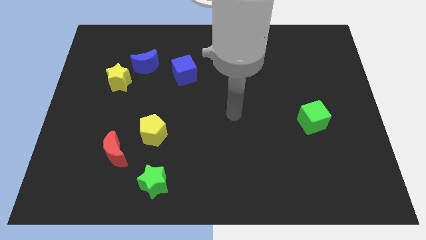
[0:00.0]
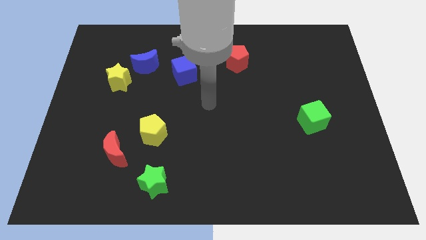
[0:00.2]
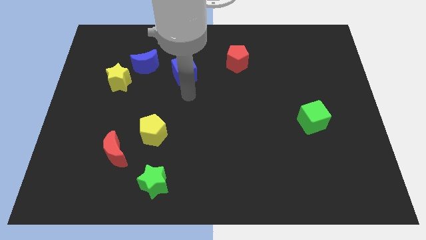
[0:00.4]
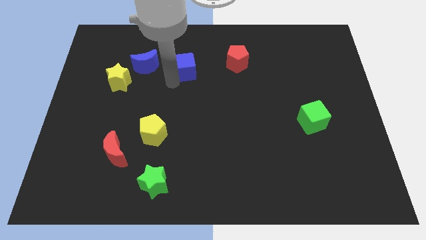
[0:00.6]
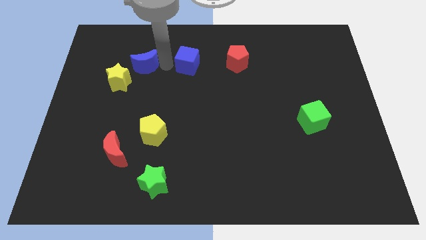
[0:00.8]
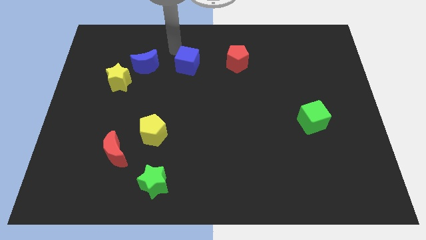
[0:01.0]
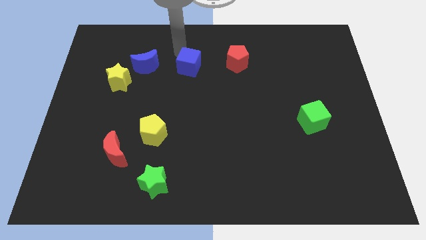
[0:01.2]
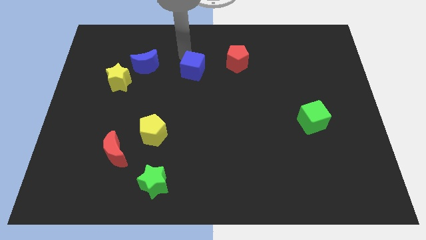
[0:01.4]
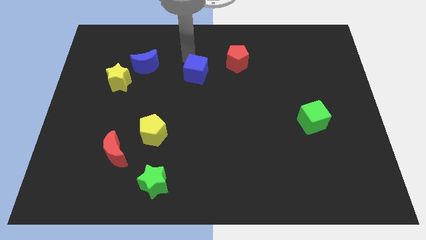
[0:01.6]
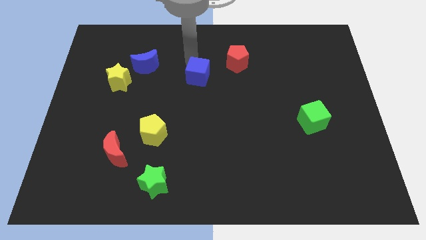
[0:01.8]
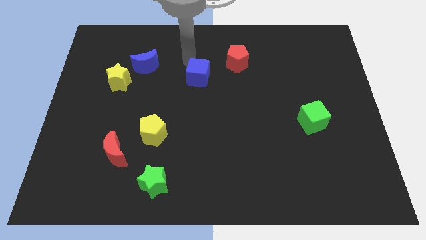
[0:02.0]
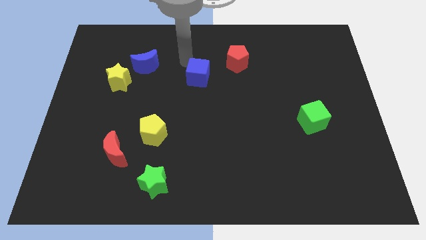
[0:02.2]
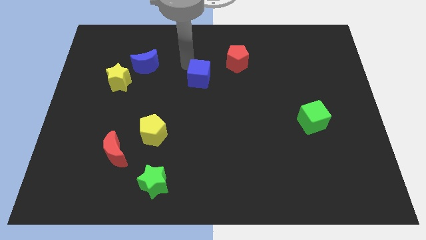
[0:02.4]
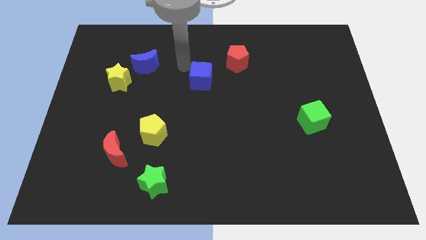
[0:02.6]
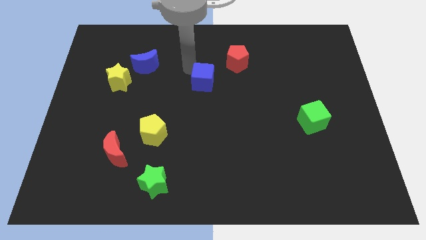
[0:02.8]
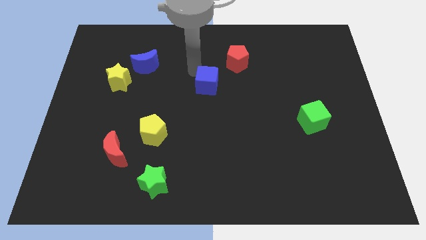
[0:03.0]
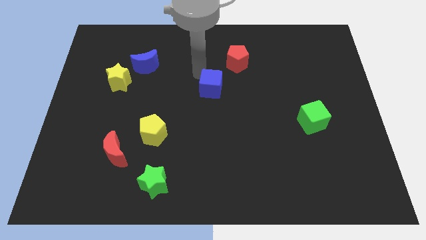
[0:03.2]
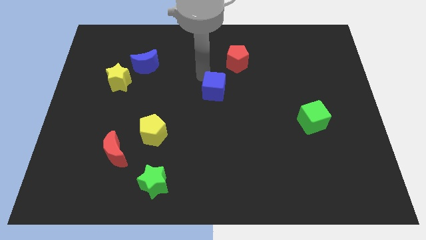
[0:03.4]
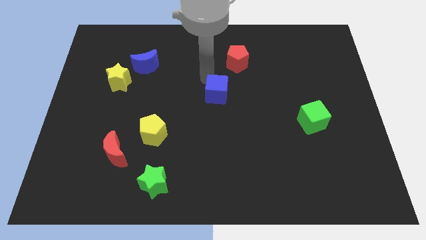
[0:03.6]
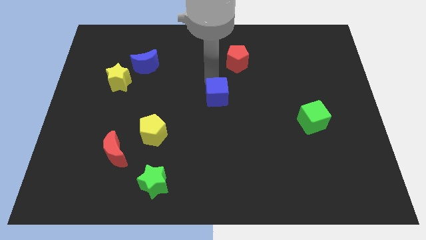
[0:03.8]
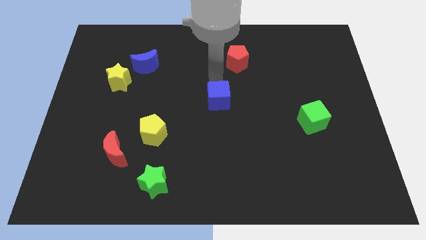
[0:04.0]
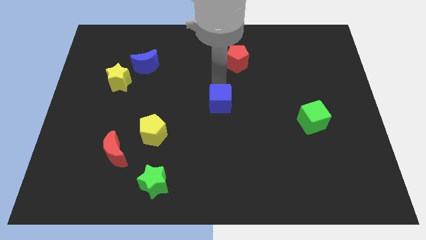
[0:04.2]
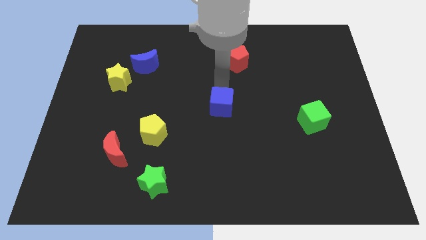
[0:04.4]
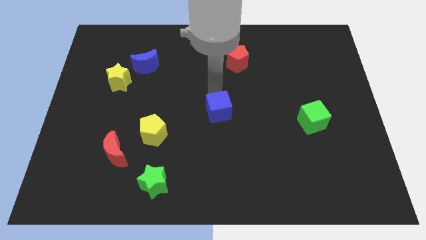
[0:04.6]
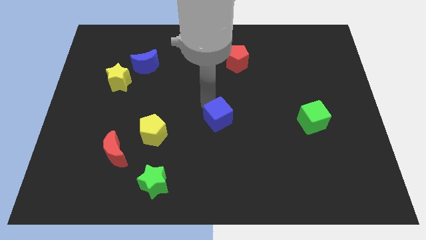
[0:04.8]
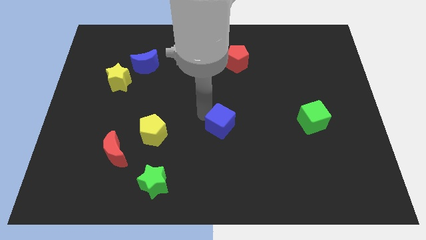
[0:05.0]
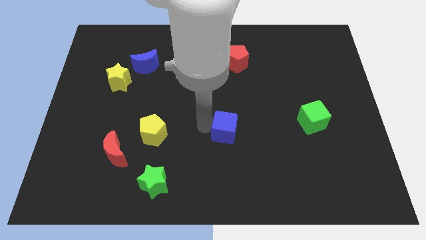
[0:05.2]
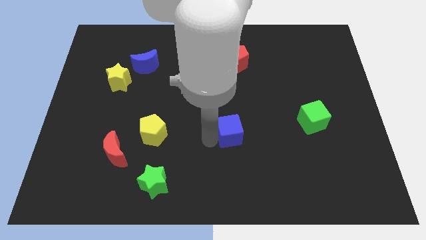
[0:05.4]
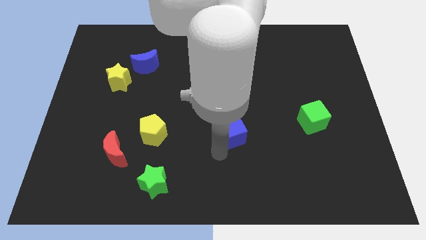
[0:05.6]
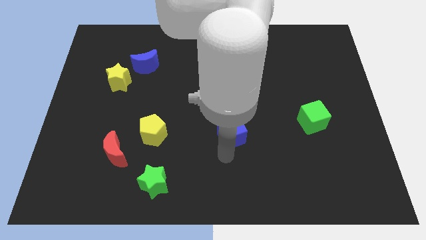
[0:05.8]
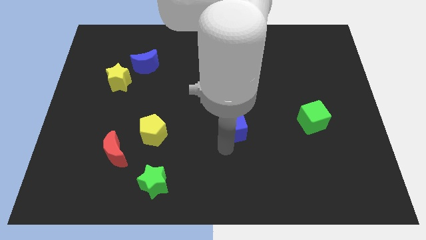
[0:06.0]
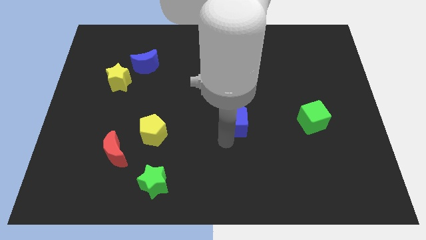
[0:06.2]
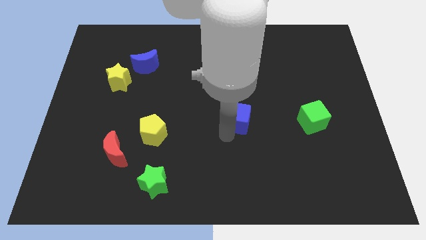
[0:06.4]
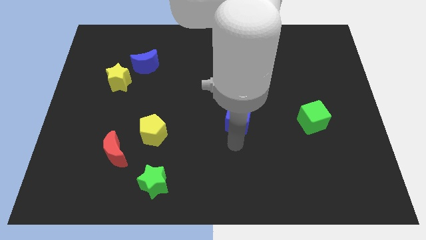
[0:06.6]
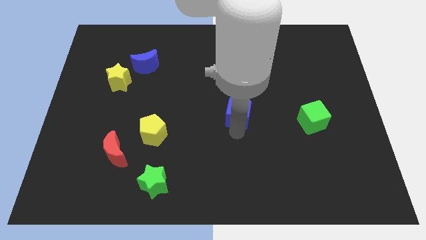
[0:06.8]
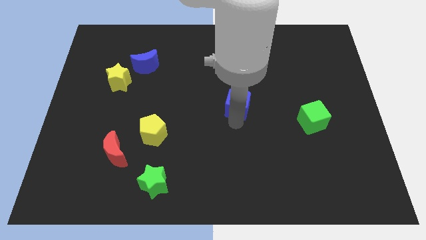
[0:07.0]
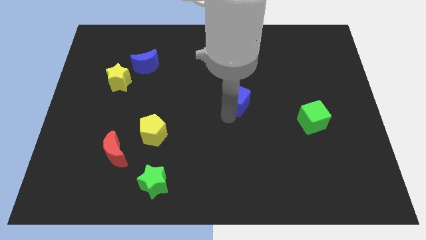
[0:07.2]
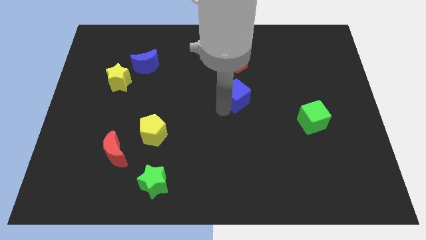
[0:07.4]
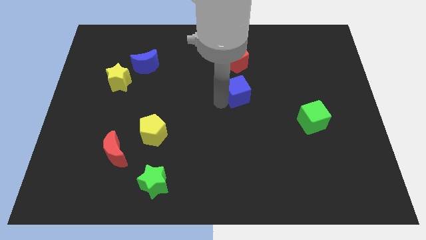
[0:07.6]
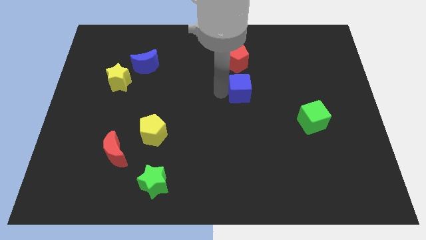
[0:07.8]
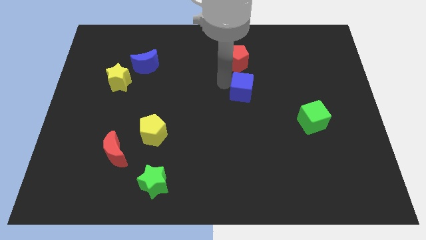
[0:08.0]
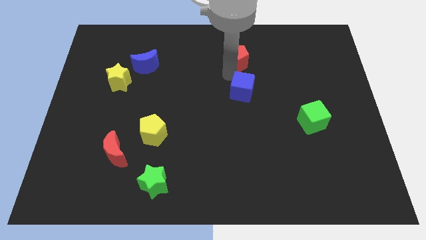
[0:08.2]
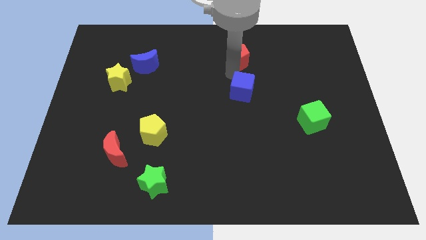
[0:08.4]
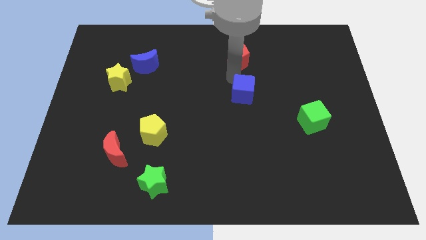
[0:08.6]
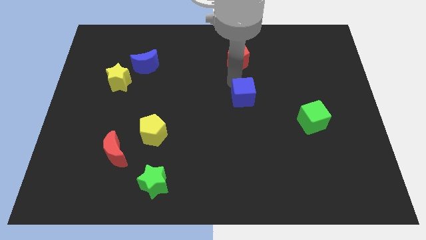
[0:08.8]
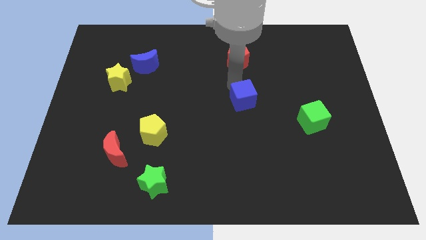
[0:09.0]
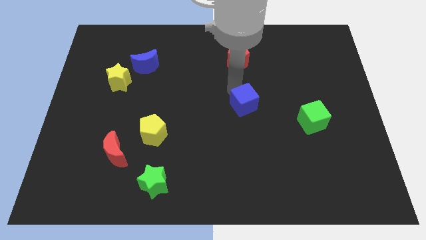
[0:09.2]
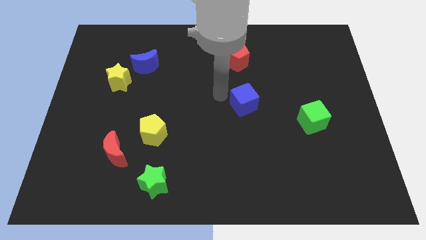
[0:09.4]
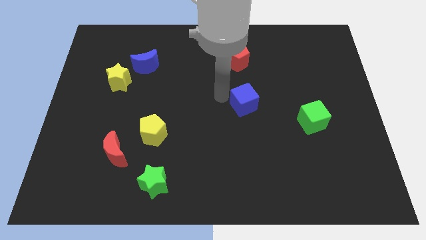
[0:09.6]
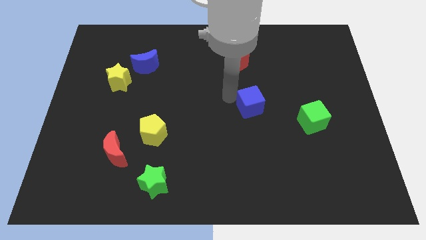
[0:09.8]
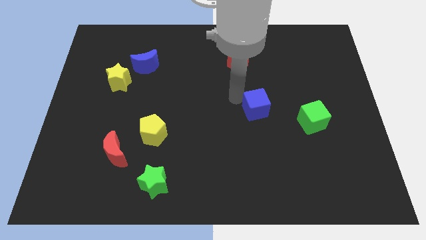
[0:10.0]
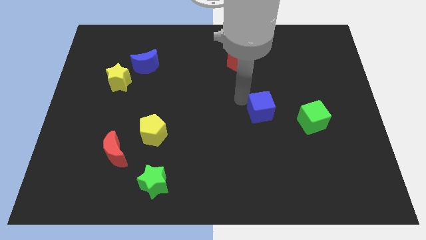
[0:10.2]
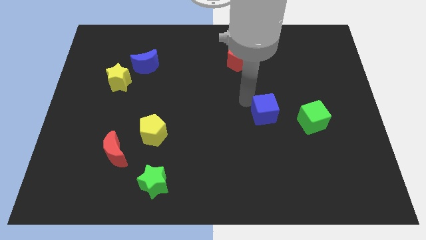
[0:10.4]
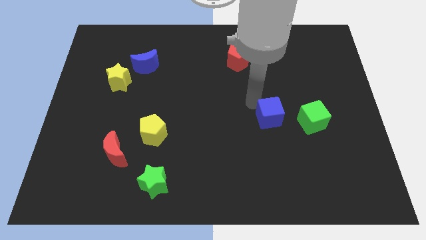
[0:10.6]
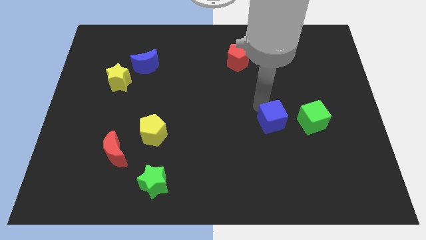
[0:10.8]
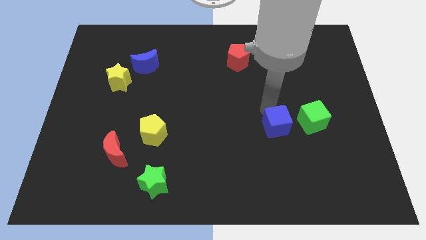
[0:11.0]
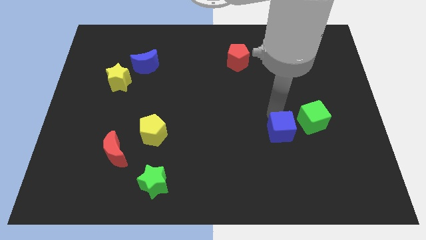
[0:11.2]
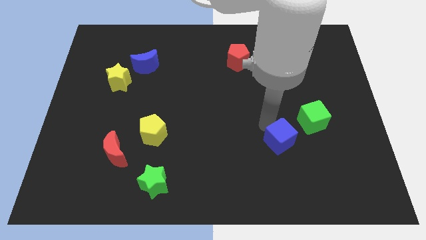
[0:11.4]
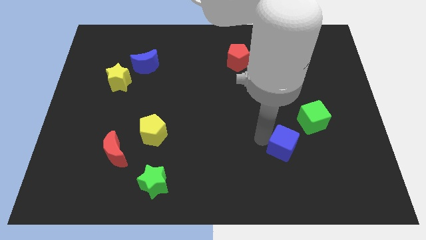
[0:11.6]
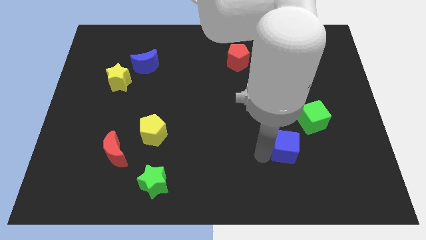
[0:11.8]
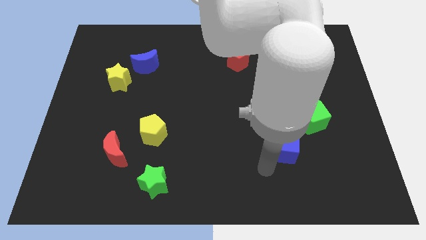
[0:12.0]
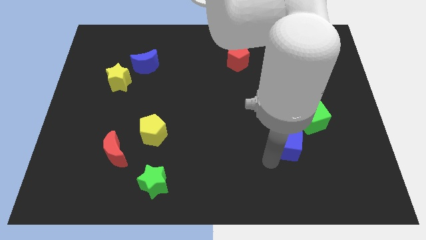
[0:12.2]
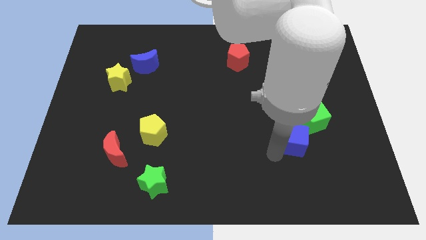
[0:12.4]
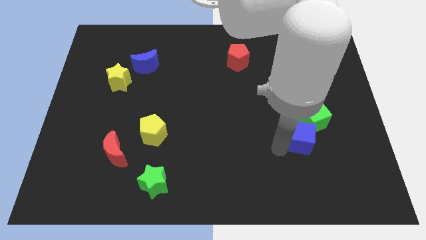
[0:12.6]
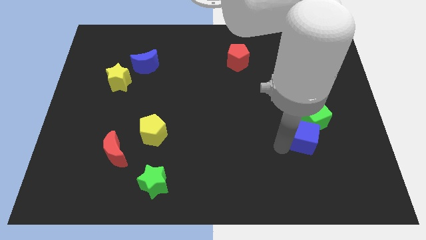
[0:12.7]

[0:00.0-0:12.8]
put the blue cube to the green cube
